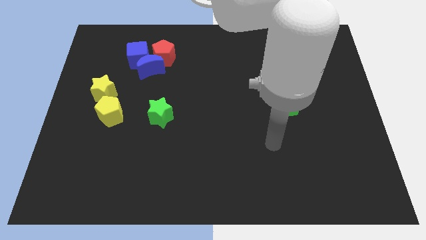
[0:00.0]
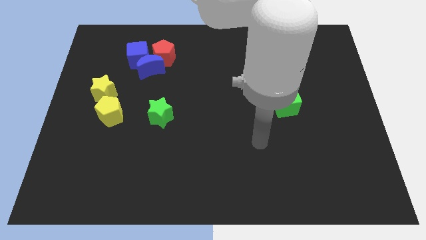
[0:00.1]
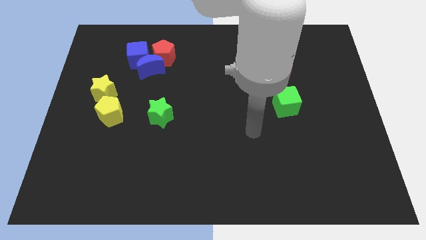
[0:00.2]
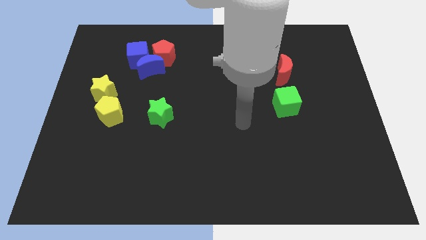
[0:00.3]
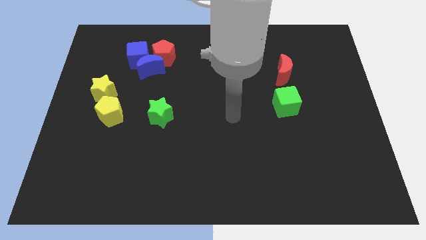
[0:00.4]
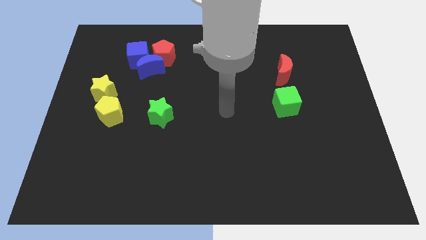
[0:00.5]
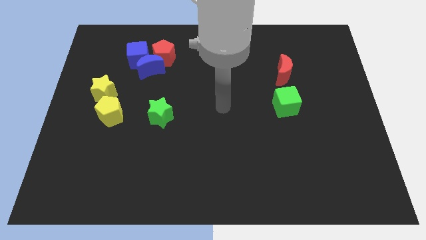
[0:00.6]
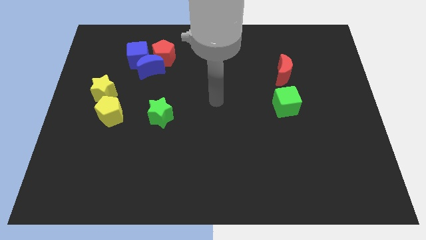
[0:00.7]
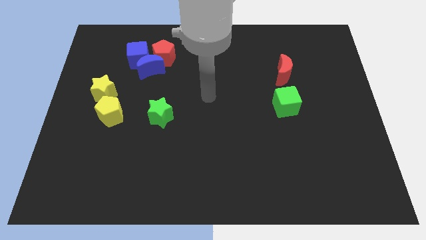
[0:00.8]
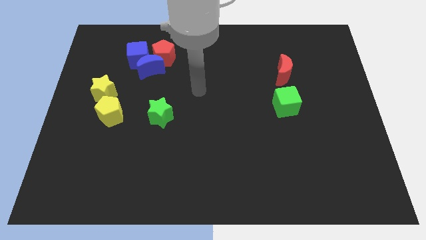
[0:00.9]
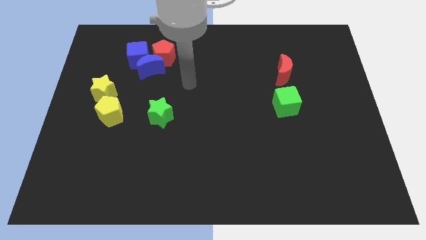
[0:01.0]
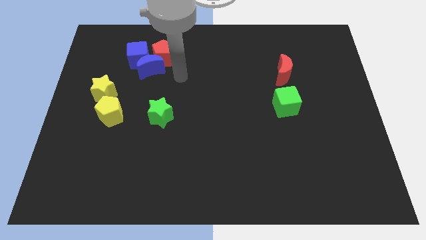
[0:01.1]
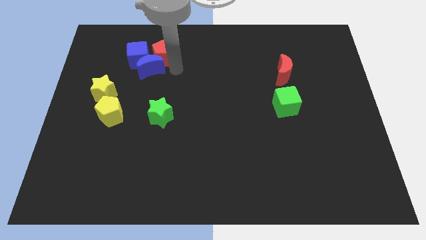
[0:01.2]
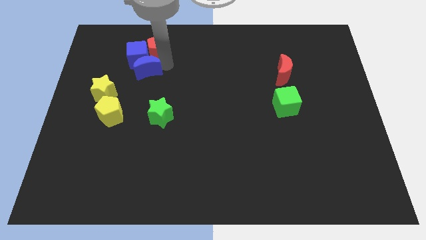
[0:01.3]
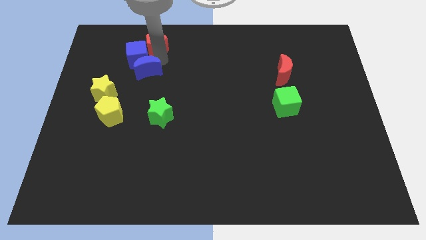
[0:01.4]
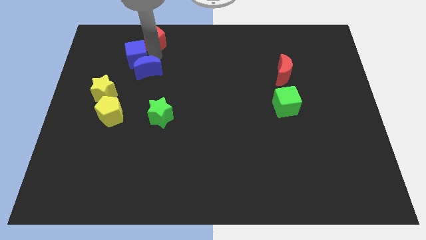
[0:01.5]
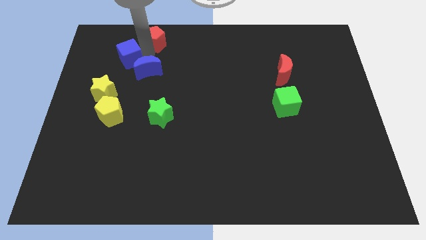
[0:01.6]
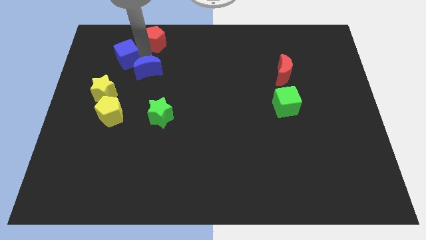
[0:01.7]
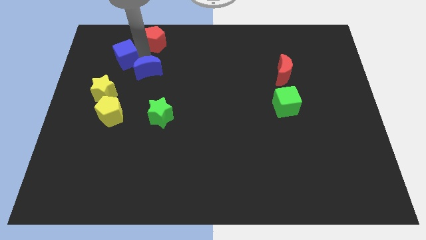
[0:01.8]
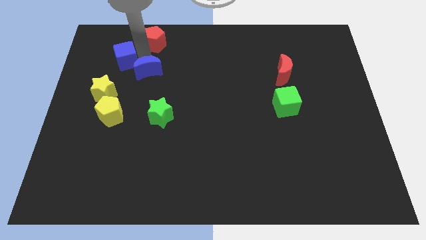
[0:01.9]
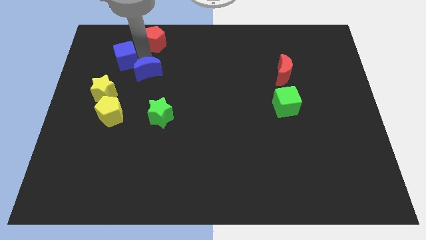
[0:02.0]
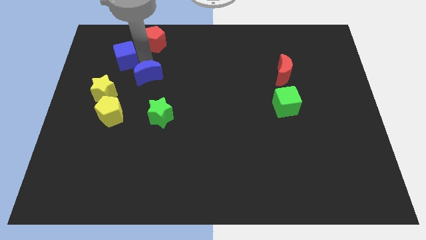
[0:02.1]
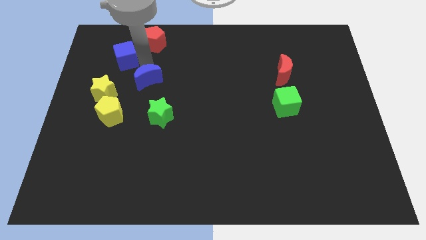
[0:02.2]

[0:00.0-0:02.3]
move the blue moon away from the blue cube and red pentagon

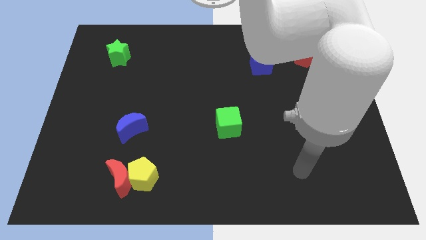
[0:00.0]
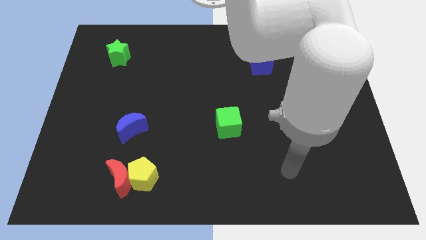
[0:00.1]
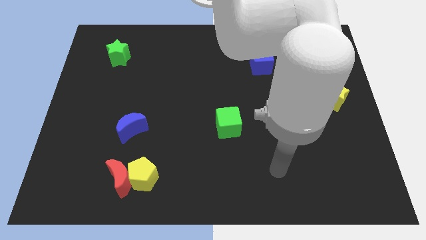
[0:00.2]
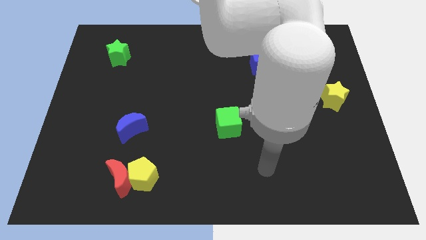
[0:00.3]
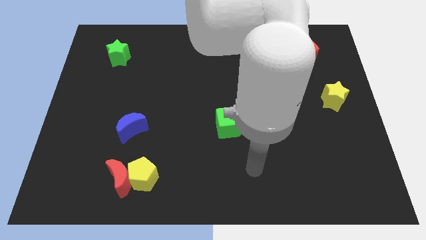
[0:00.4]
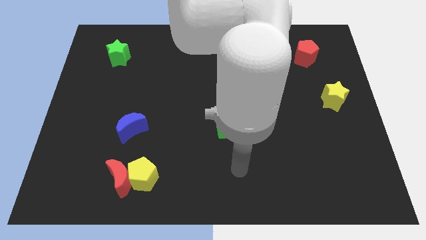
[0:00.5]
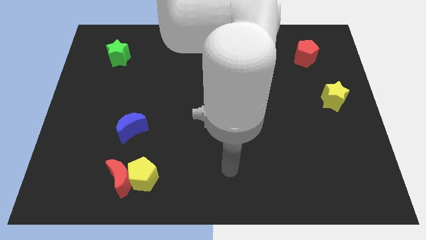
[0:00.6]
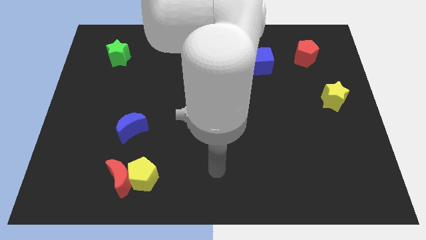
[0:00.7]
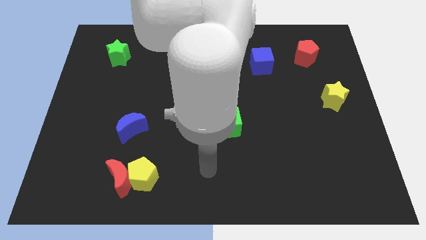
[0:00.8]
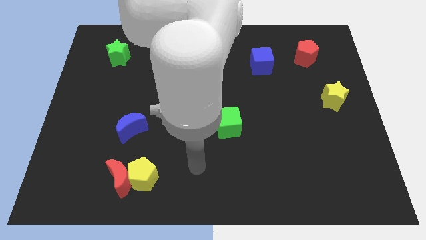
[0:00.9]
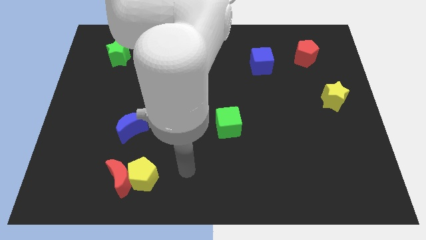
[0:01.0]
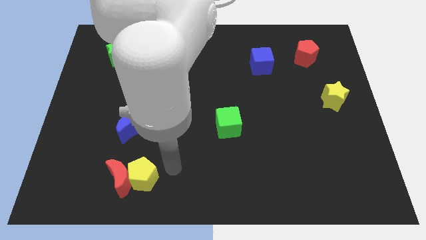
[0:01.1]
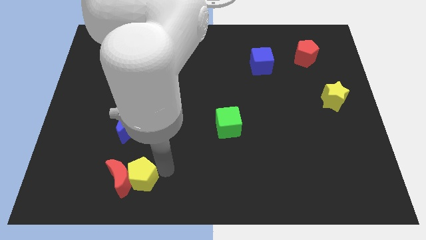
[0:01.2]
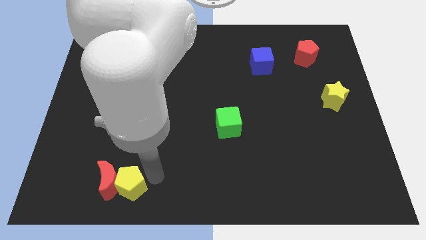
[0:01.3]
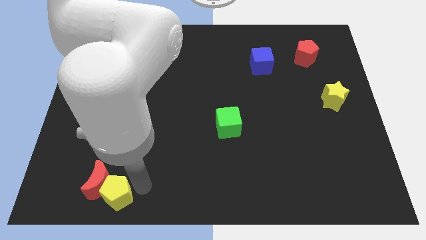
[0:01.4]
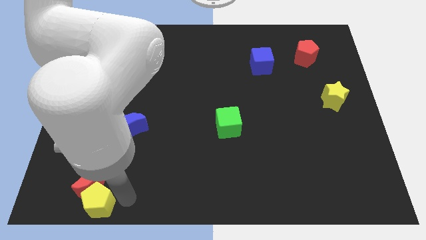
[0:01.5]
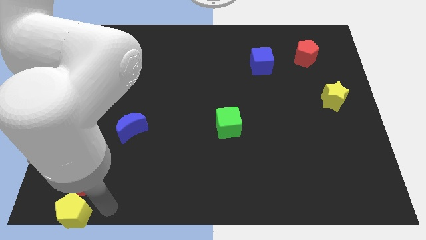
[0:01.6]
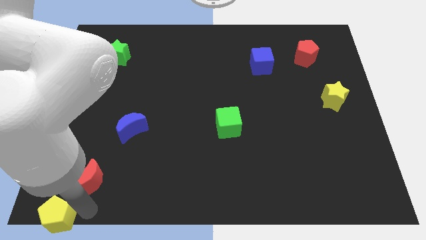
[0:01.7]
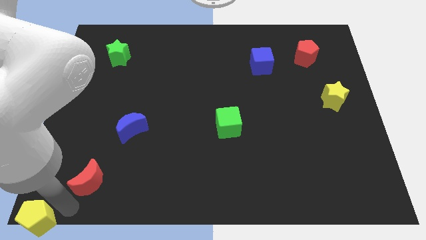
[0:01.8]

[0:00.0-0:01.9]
move the red moon away from the yellow pentagon

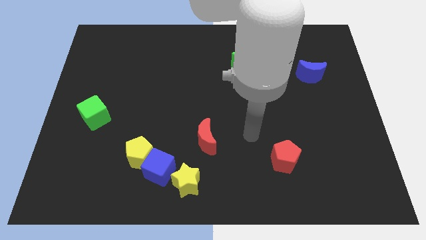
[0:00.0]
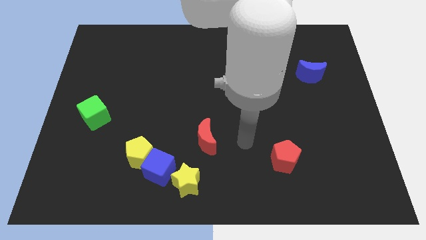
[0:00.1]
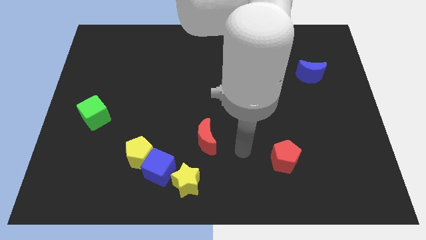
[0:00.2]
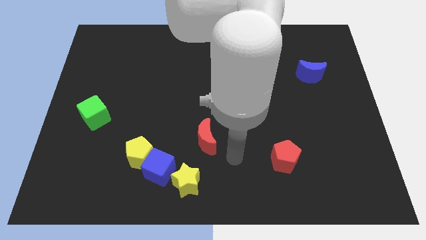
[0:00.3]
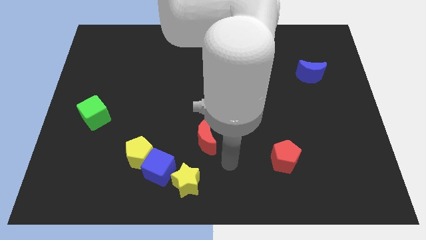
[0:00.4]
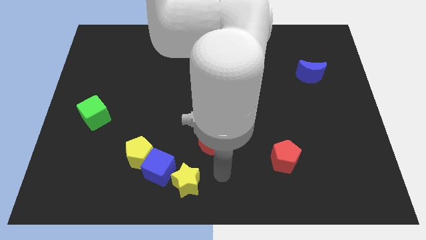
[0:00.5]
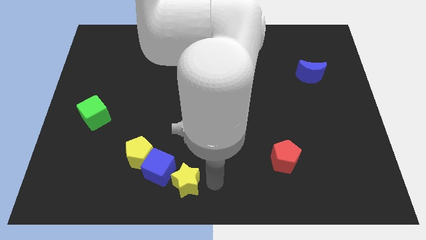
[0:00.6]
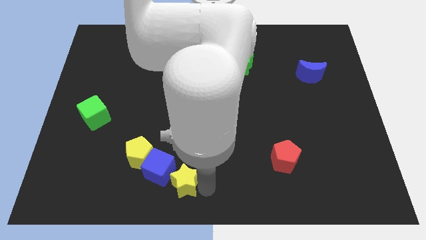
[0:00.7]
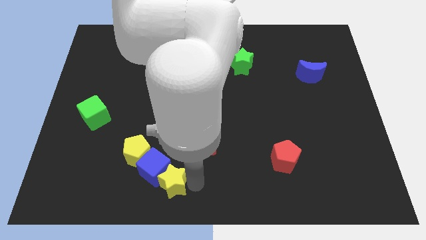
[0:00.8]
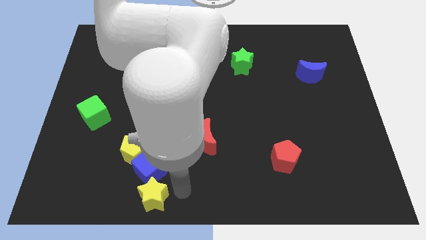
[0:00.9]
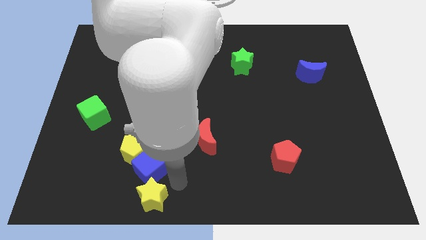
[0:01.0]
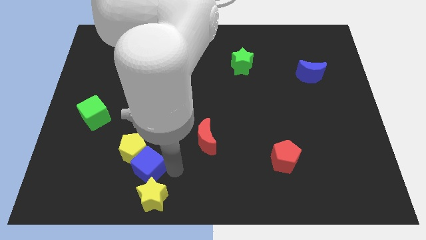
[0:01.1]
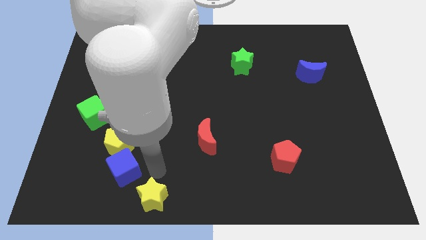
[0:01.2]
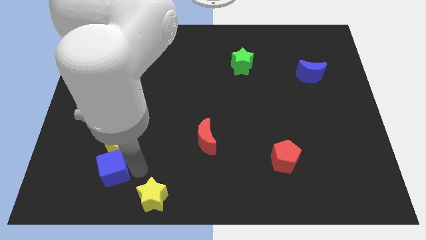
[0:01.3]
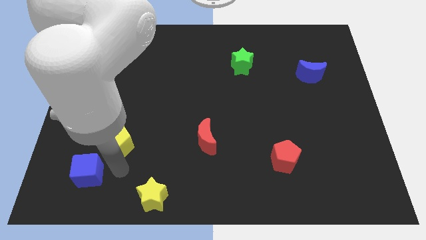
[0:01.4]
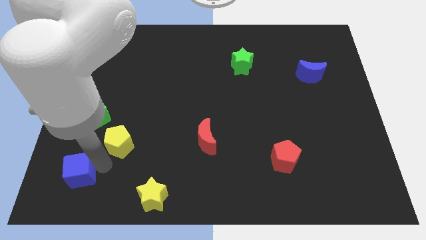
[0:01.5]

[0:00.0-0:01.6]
separate the yellow pentagon from the blue cube

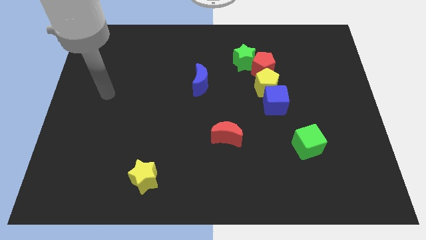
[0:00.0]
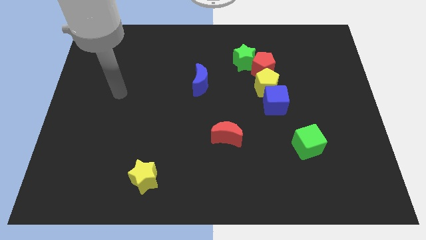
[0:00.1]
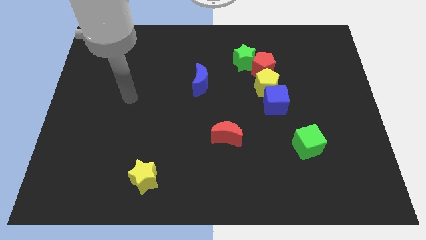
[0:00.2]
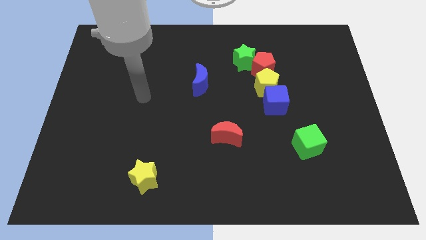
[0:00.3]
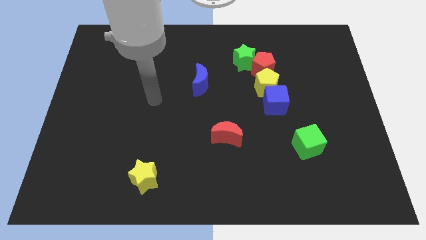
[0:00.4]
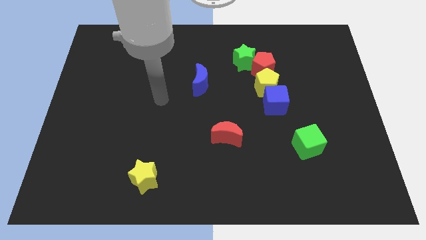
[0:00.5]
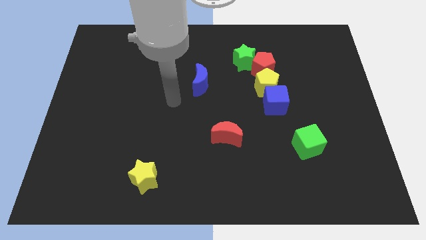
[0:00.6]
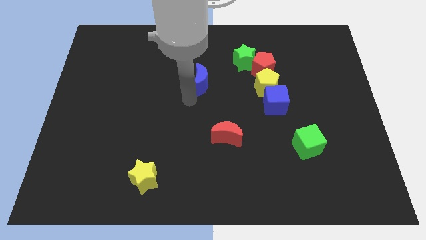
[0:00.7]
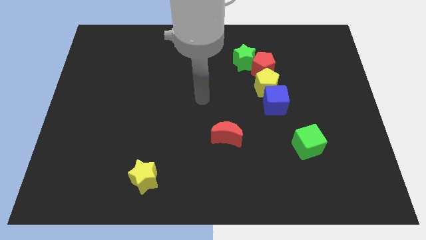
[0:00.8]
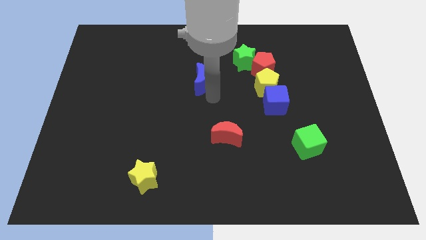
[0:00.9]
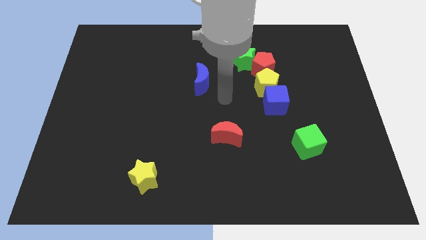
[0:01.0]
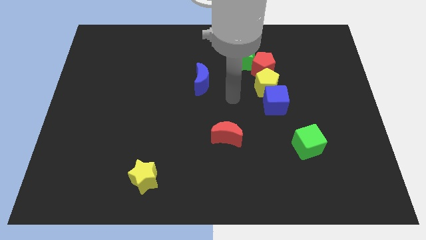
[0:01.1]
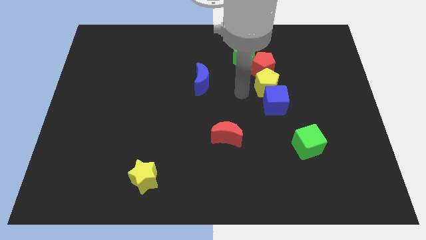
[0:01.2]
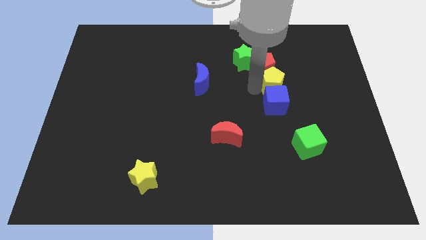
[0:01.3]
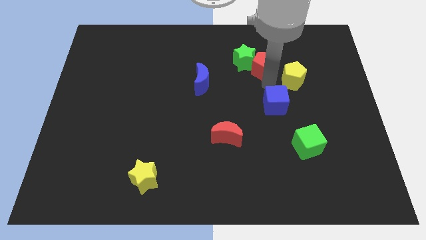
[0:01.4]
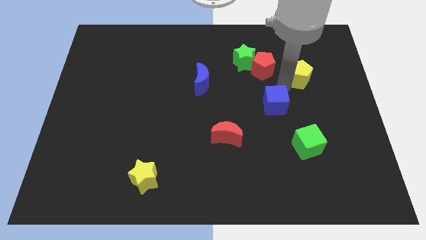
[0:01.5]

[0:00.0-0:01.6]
move the blue cube away from the yellow pentagon

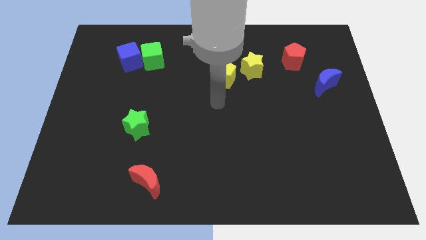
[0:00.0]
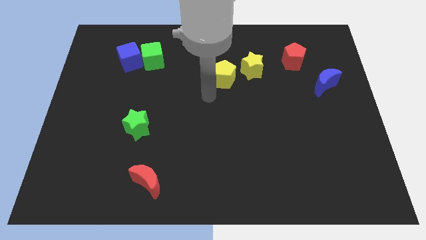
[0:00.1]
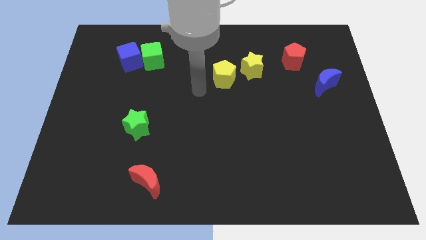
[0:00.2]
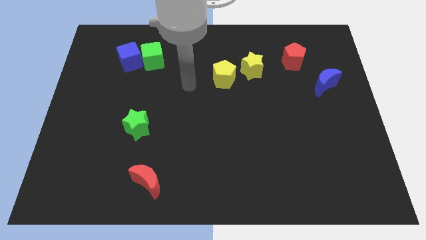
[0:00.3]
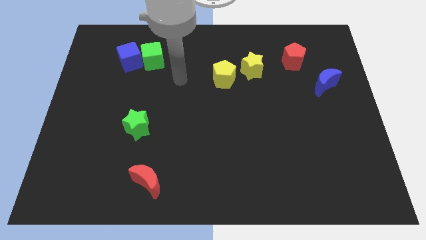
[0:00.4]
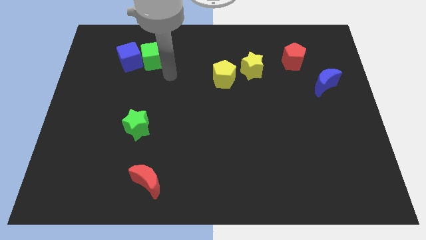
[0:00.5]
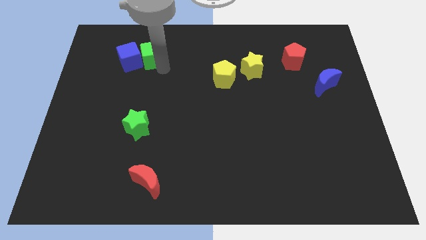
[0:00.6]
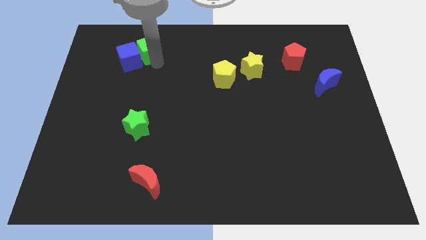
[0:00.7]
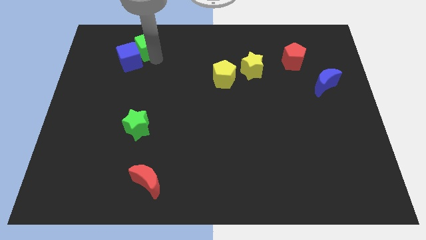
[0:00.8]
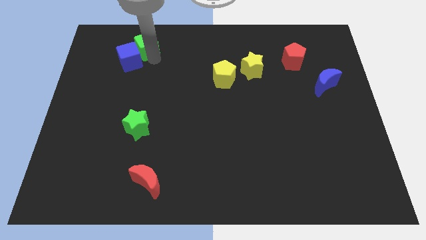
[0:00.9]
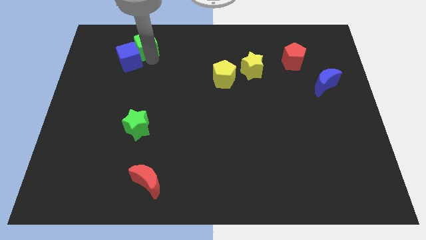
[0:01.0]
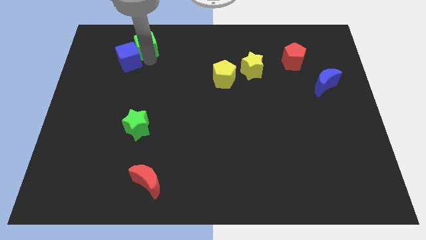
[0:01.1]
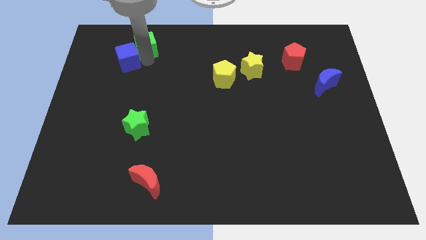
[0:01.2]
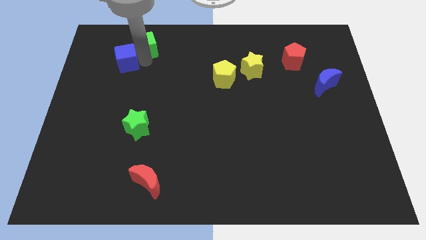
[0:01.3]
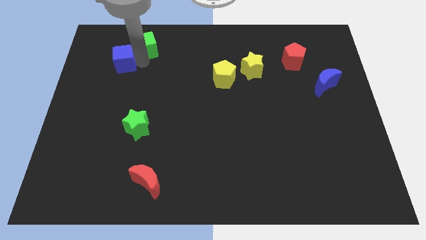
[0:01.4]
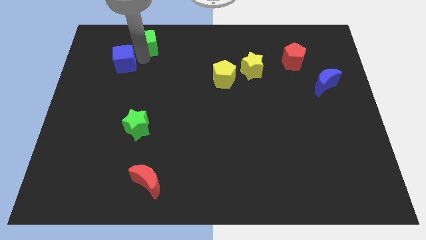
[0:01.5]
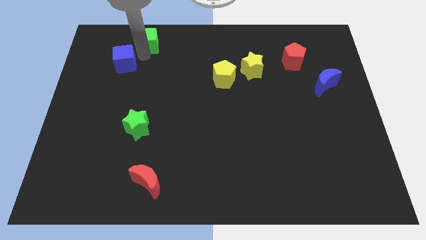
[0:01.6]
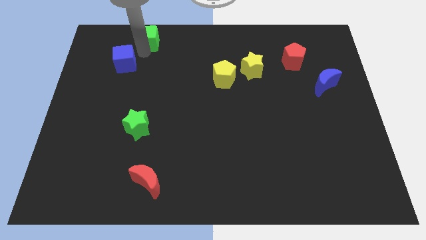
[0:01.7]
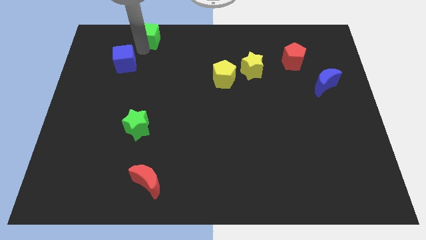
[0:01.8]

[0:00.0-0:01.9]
separate the blue cube from the green cube
